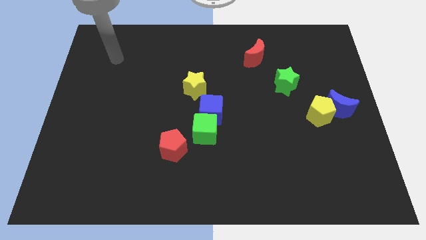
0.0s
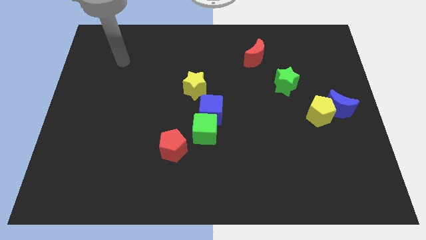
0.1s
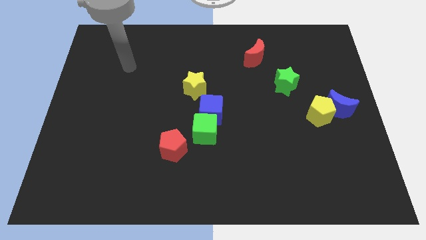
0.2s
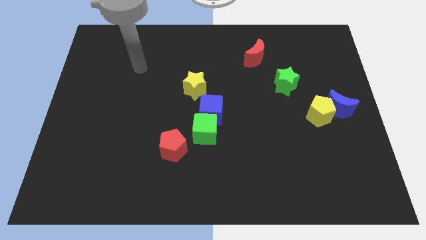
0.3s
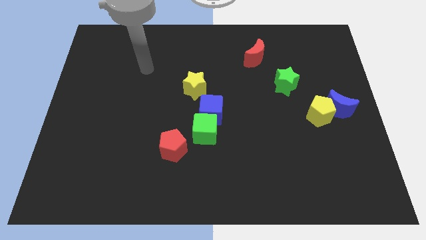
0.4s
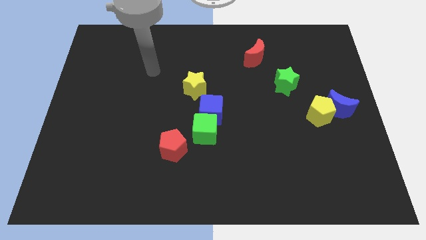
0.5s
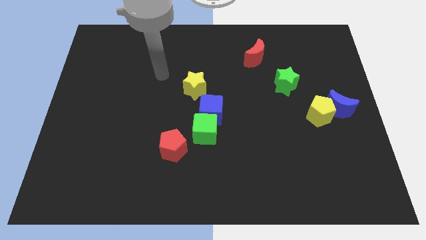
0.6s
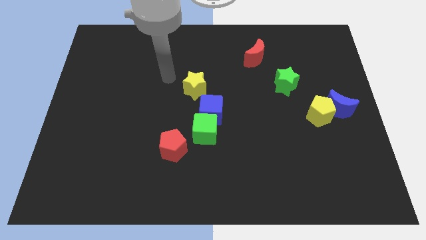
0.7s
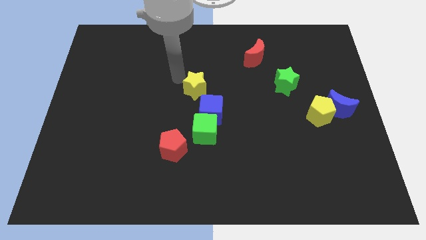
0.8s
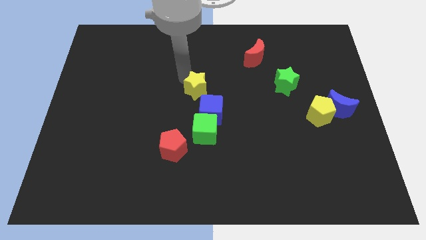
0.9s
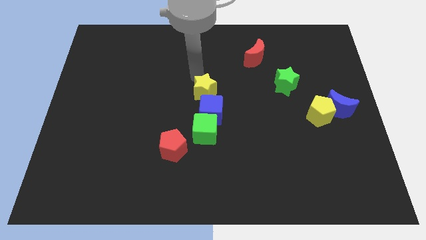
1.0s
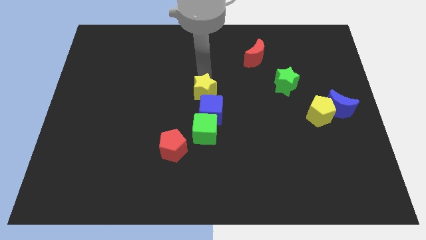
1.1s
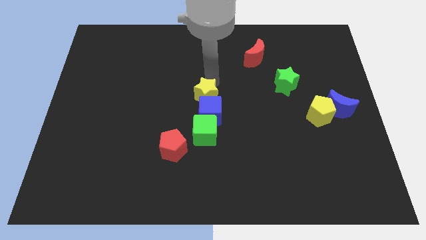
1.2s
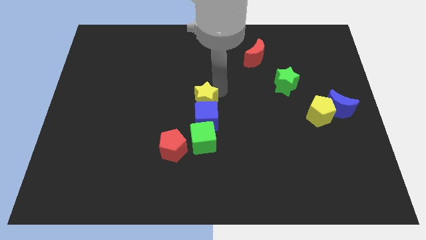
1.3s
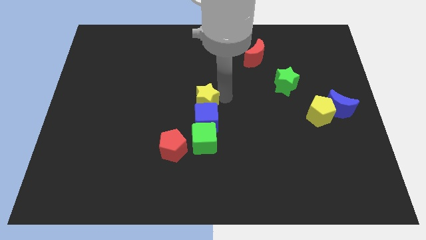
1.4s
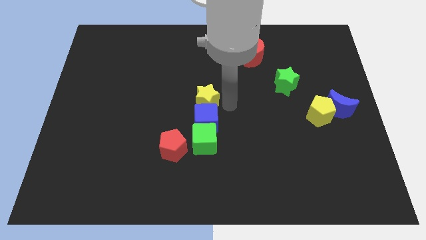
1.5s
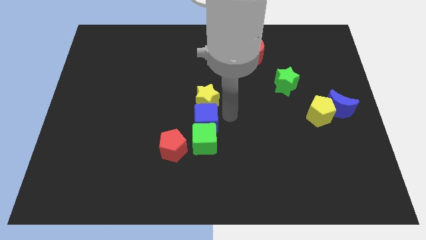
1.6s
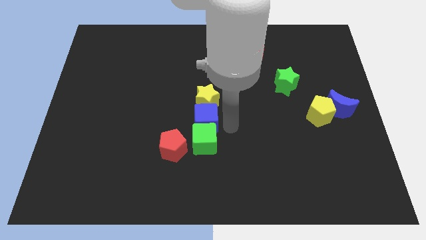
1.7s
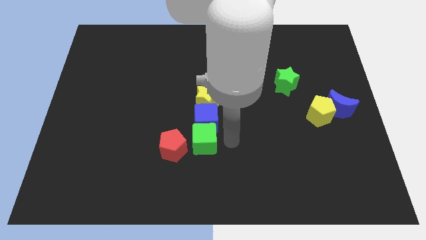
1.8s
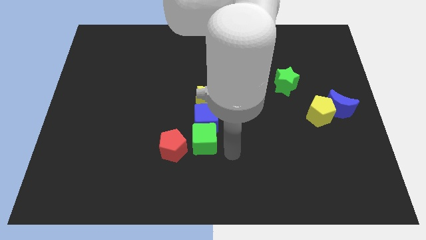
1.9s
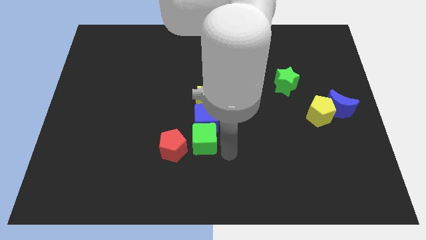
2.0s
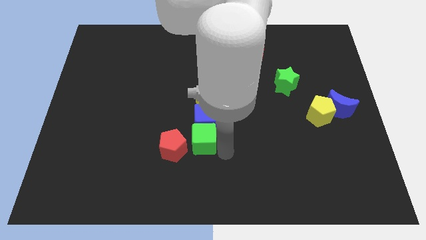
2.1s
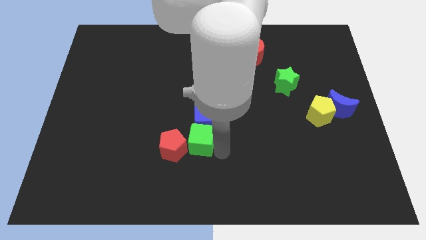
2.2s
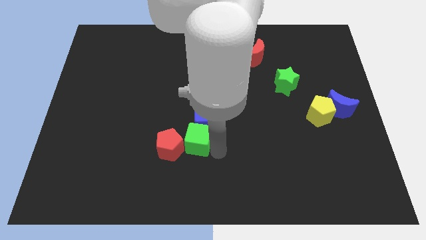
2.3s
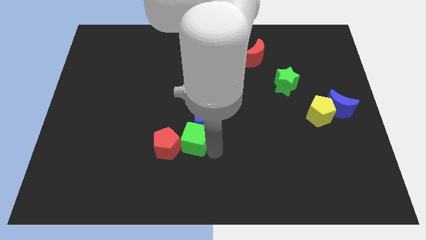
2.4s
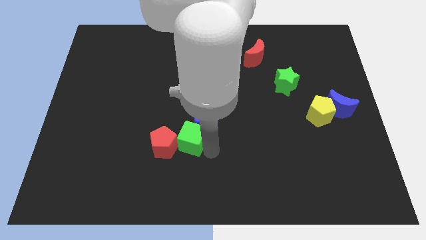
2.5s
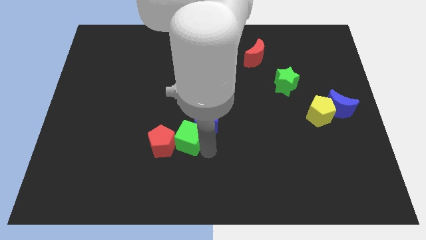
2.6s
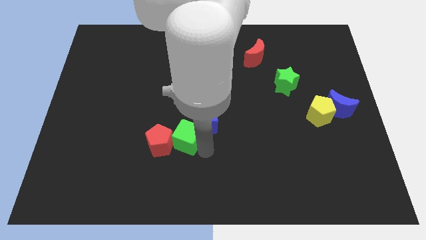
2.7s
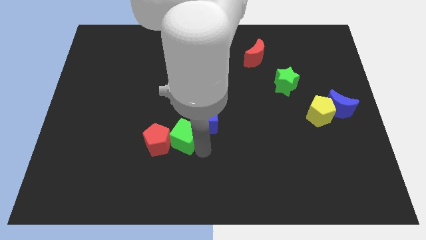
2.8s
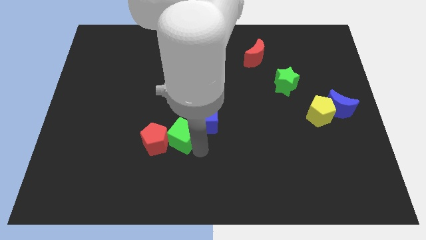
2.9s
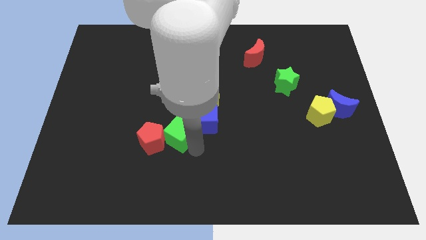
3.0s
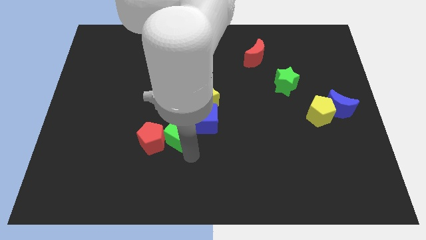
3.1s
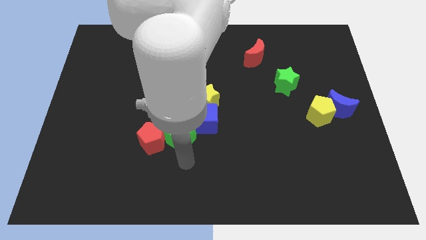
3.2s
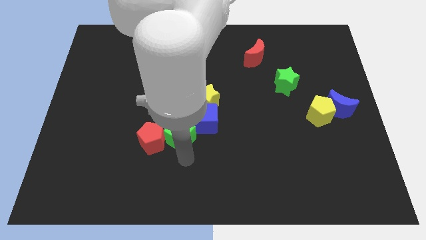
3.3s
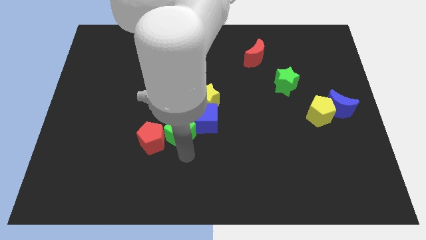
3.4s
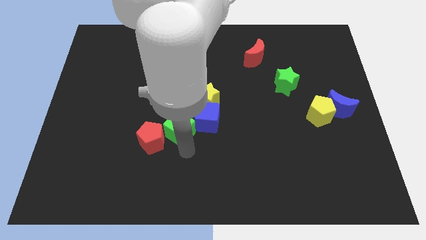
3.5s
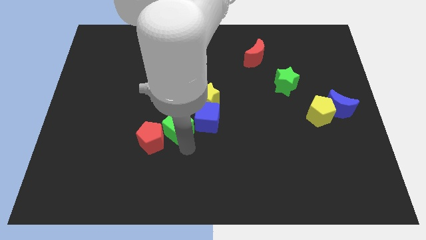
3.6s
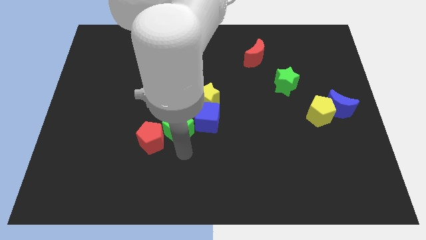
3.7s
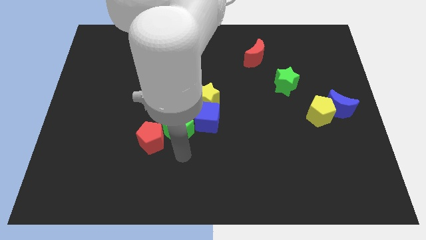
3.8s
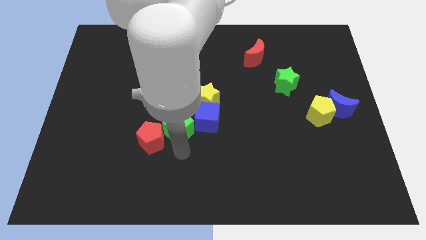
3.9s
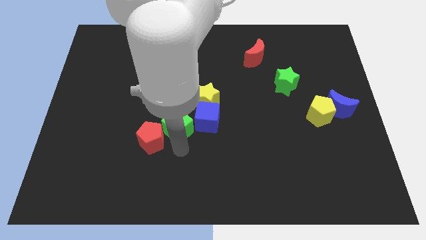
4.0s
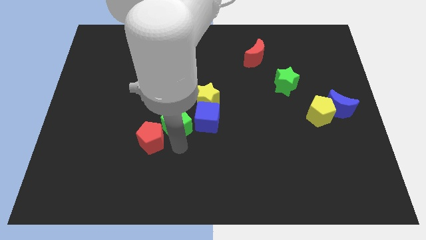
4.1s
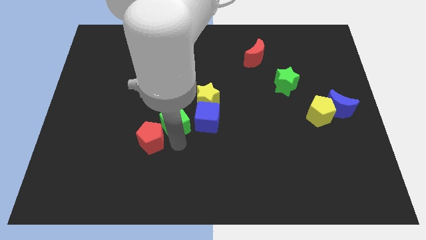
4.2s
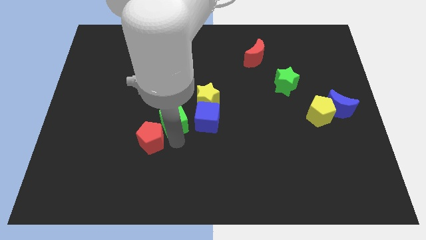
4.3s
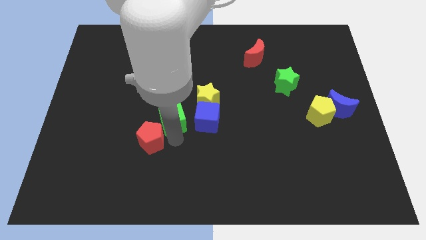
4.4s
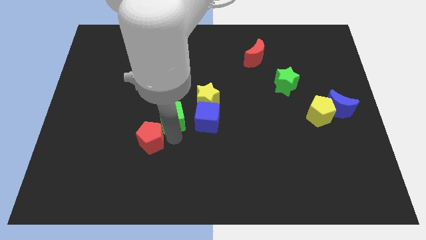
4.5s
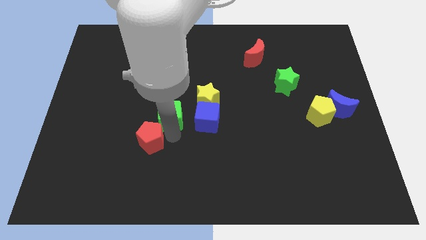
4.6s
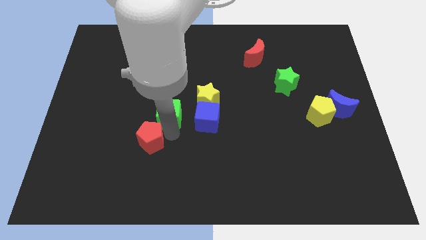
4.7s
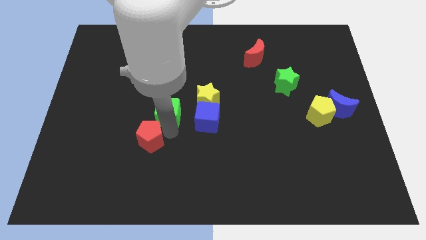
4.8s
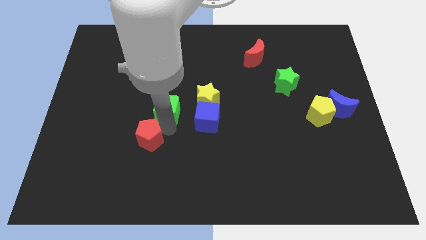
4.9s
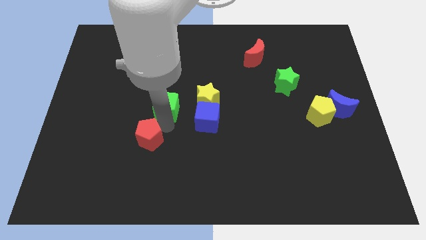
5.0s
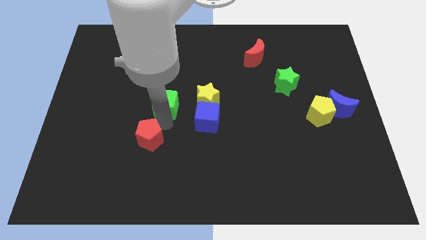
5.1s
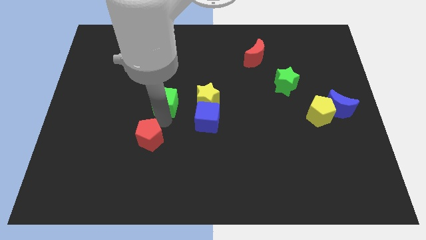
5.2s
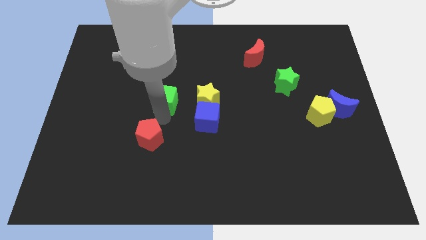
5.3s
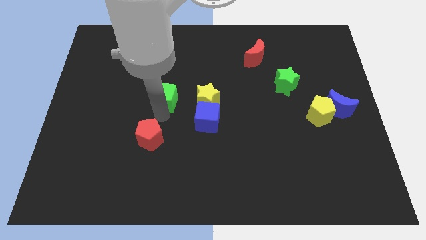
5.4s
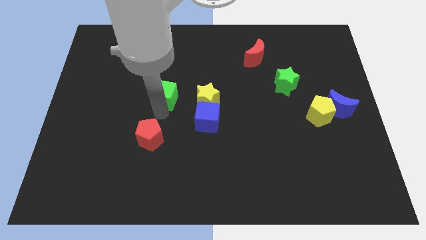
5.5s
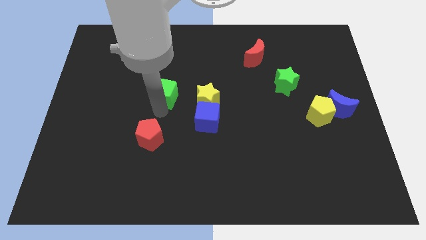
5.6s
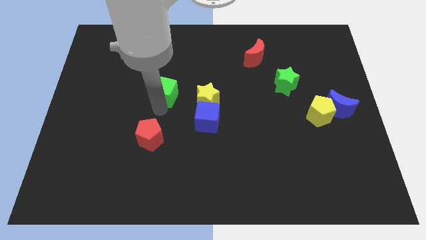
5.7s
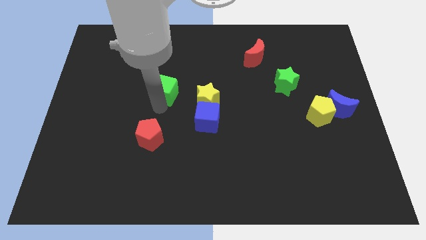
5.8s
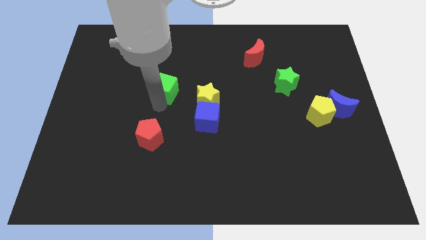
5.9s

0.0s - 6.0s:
move the green cube to the top left side of the yellow star

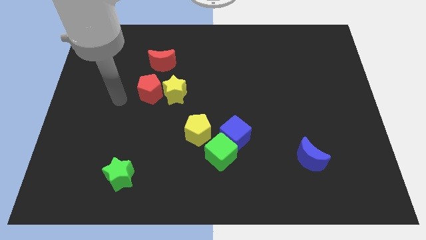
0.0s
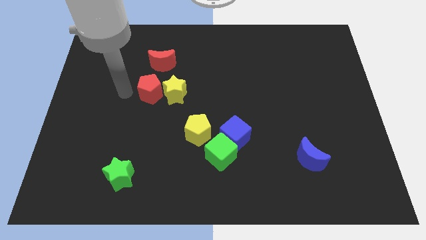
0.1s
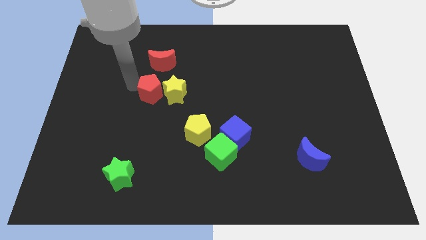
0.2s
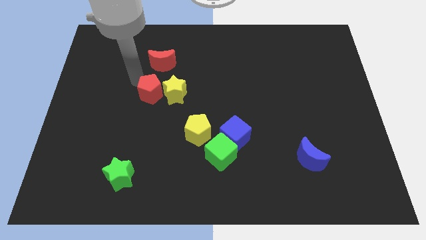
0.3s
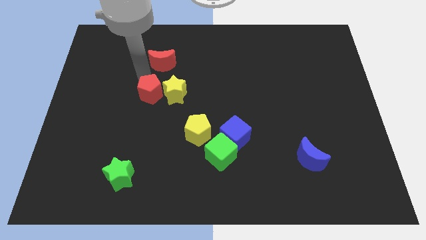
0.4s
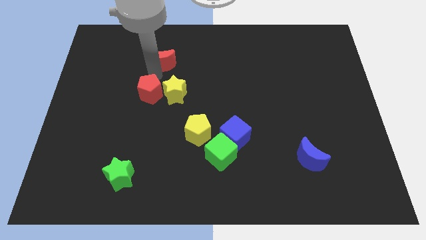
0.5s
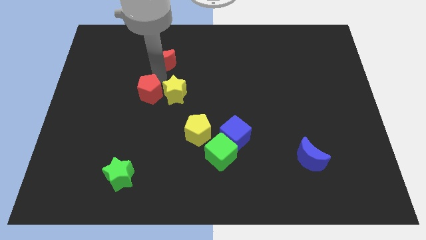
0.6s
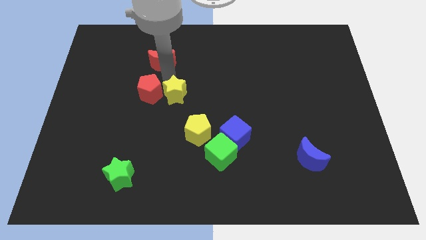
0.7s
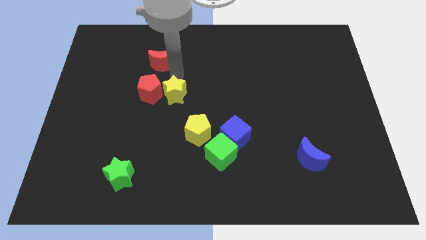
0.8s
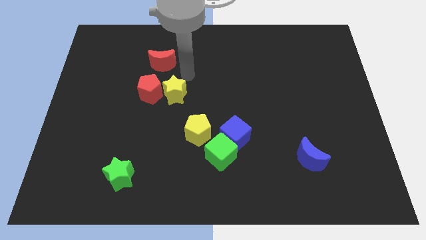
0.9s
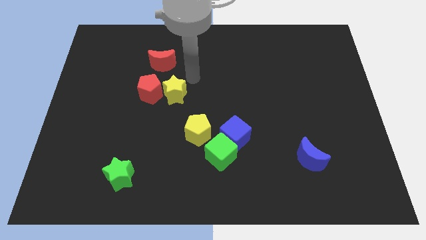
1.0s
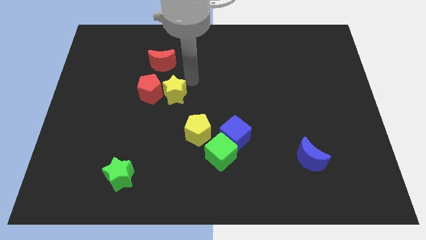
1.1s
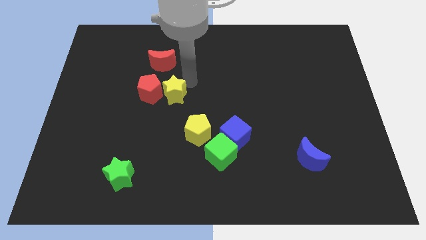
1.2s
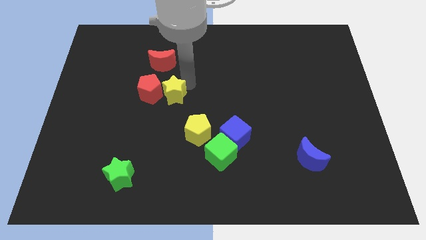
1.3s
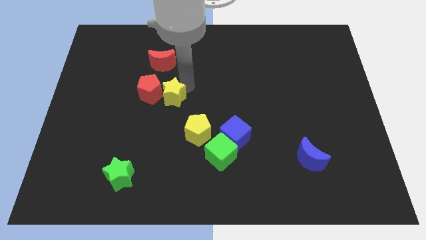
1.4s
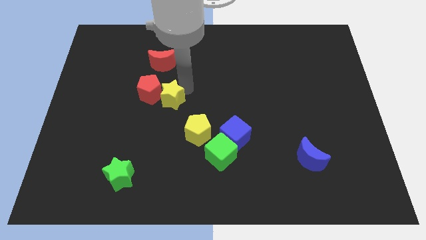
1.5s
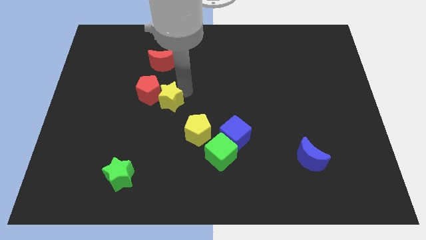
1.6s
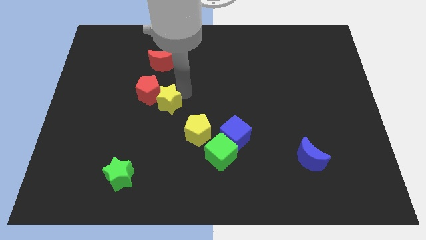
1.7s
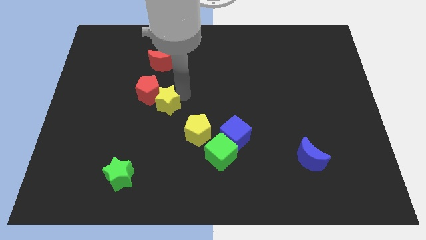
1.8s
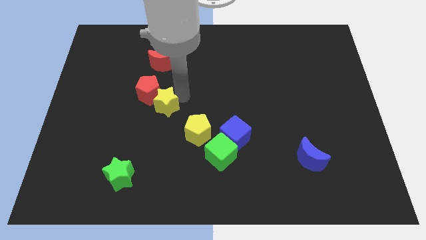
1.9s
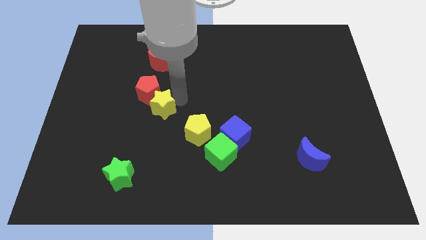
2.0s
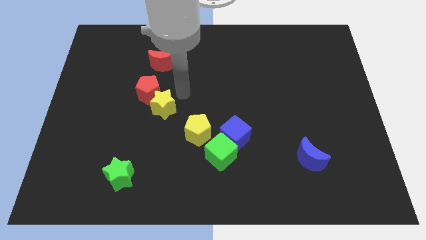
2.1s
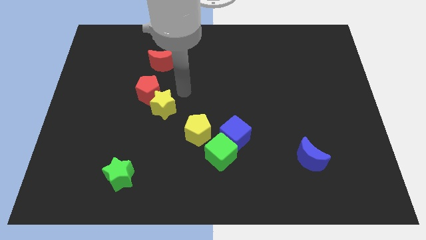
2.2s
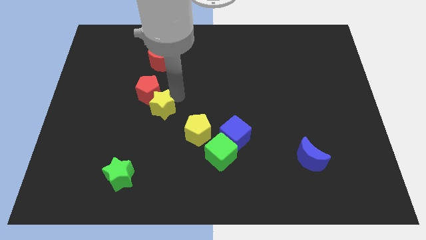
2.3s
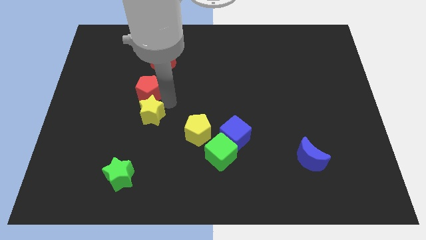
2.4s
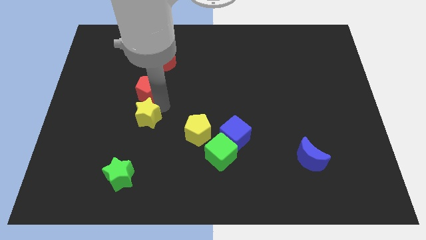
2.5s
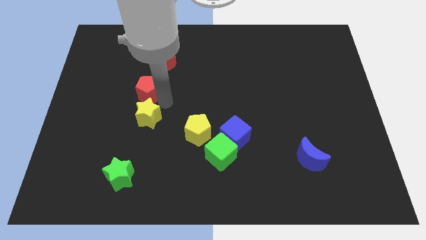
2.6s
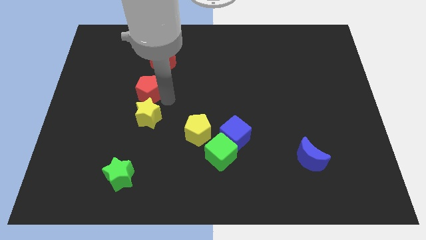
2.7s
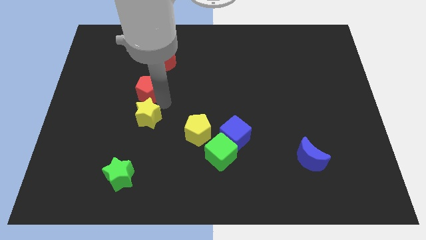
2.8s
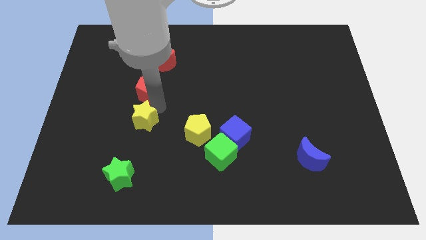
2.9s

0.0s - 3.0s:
put the yellow star to the top of the green star
